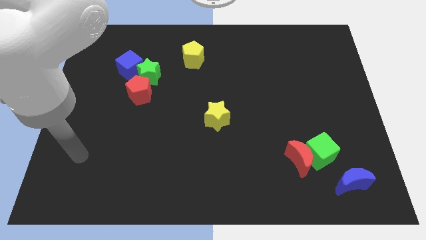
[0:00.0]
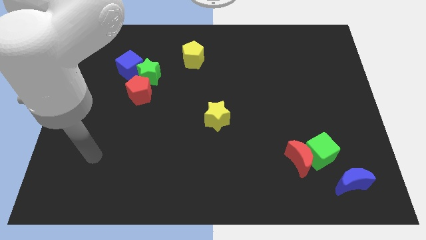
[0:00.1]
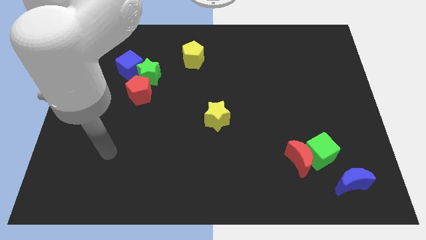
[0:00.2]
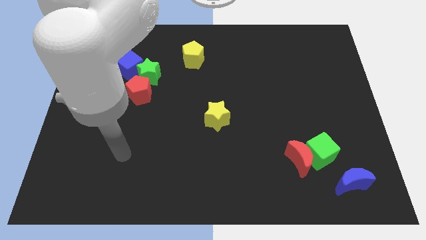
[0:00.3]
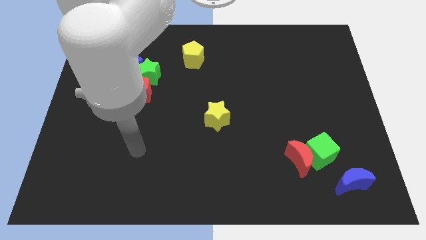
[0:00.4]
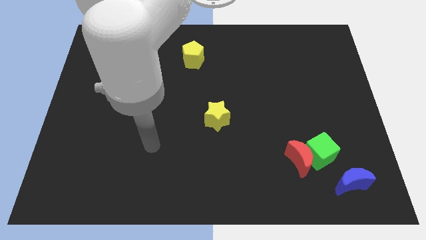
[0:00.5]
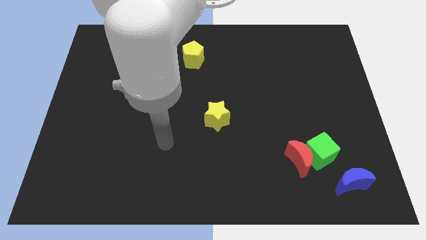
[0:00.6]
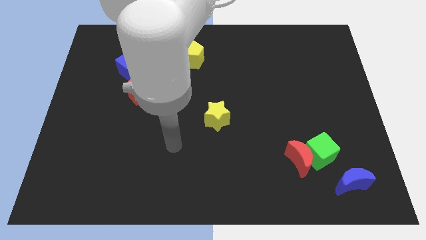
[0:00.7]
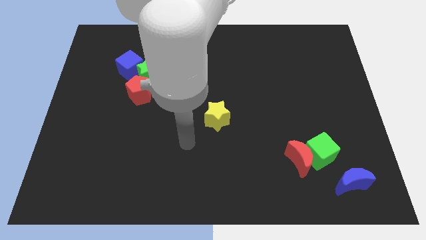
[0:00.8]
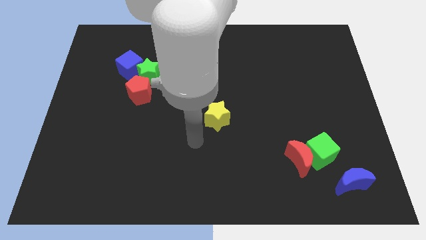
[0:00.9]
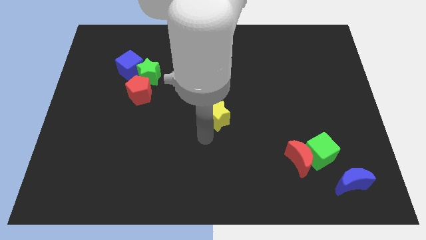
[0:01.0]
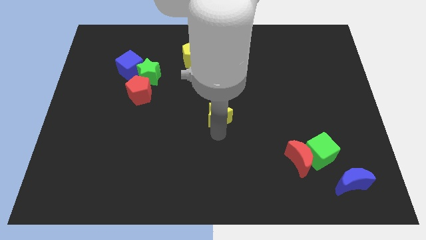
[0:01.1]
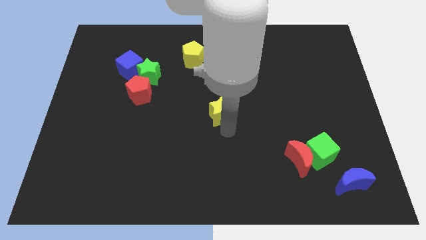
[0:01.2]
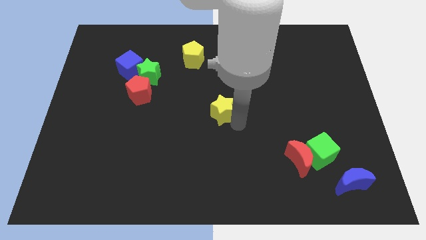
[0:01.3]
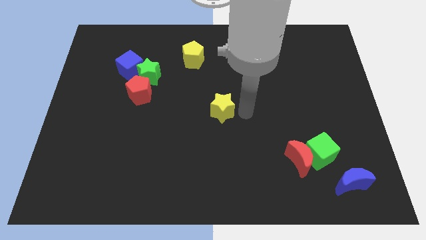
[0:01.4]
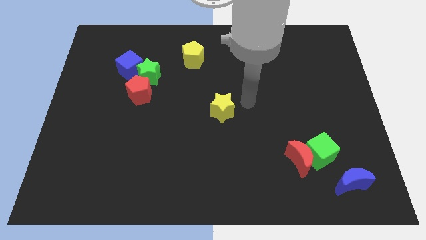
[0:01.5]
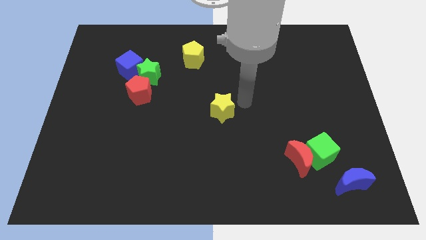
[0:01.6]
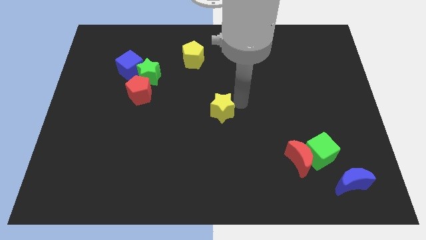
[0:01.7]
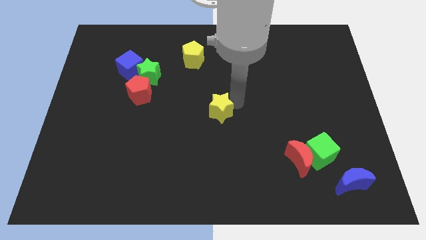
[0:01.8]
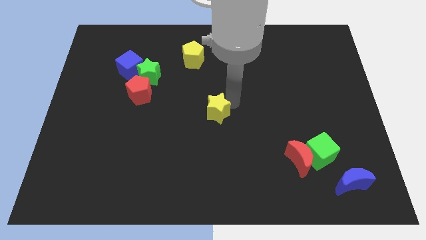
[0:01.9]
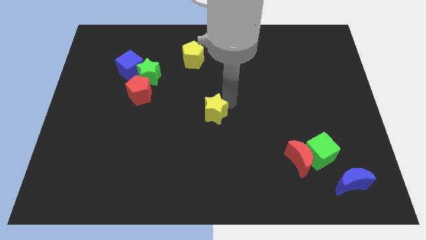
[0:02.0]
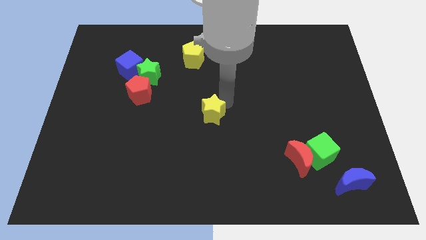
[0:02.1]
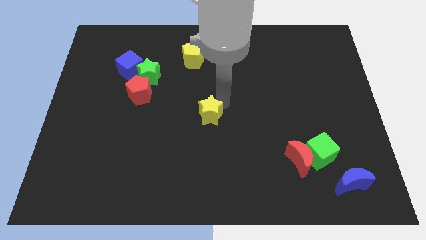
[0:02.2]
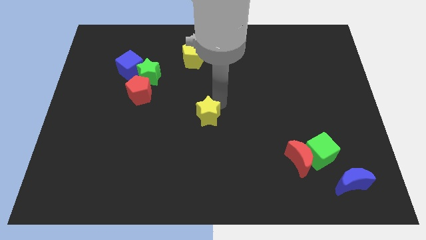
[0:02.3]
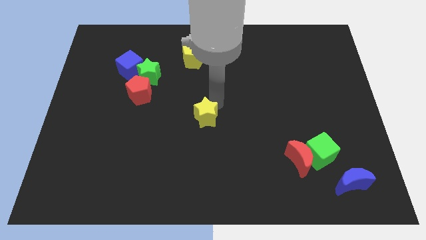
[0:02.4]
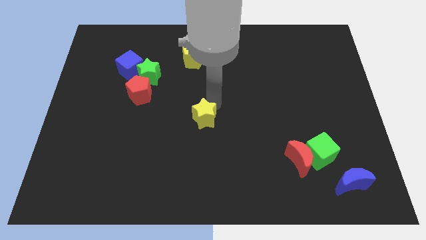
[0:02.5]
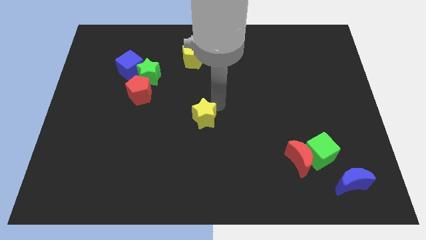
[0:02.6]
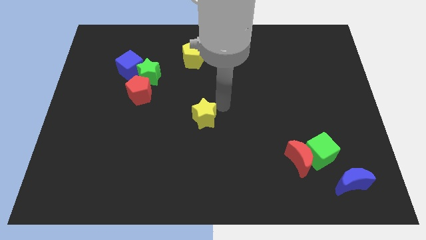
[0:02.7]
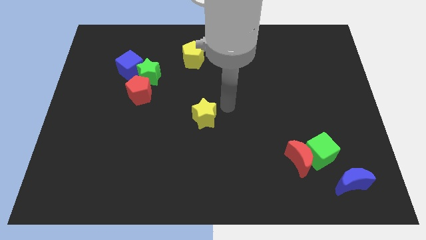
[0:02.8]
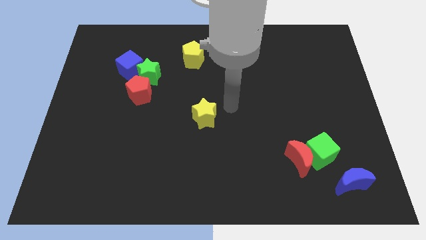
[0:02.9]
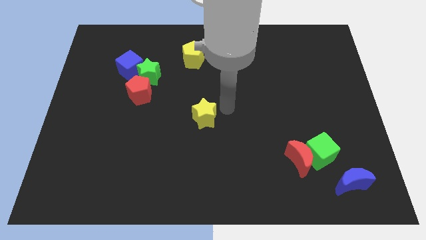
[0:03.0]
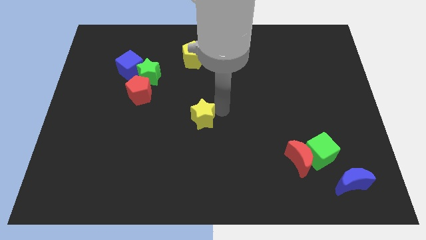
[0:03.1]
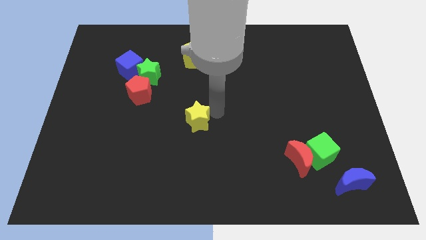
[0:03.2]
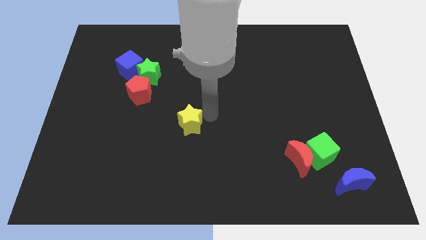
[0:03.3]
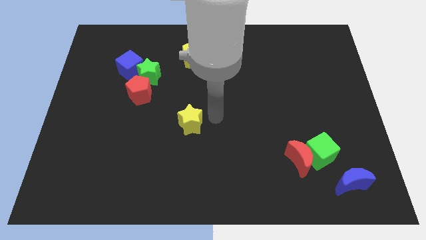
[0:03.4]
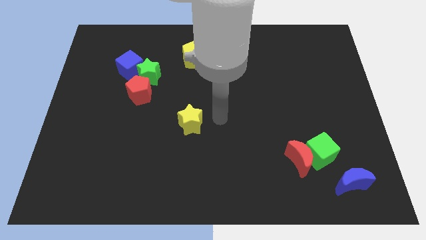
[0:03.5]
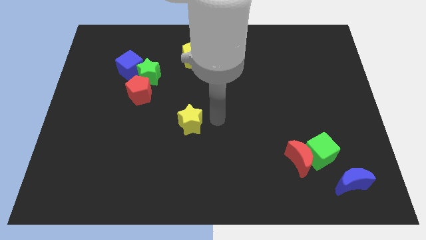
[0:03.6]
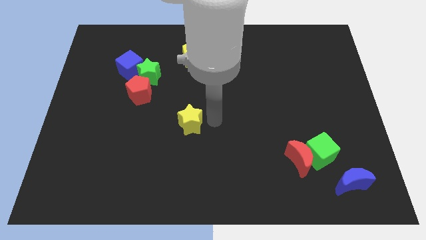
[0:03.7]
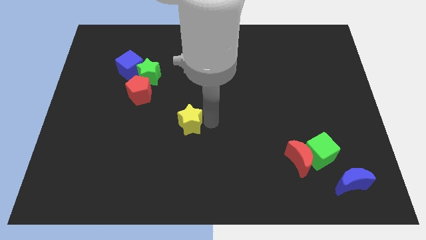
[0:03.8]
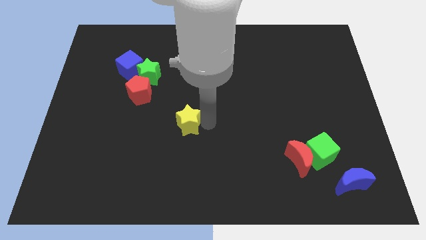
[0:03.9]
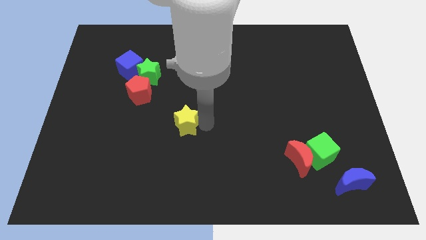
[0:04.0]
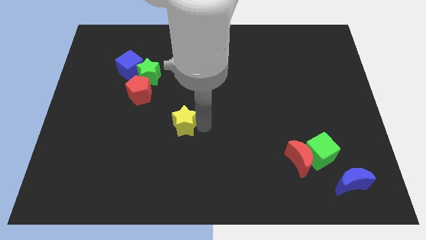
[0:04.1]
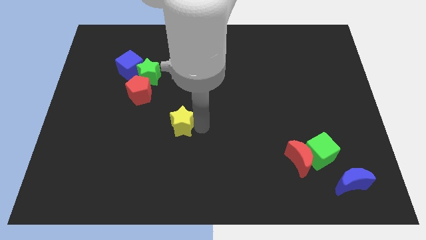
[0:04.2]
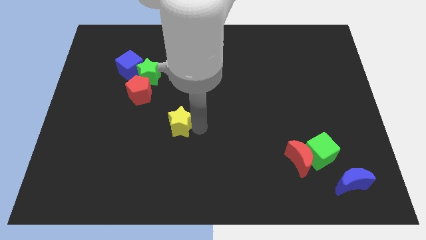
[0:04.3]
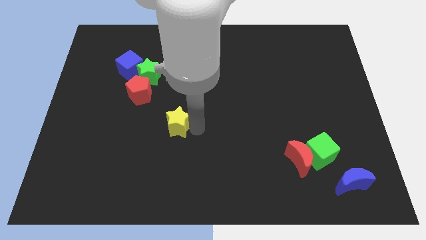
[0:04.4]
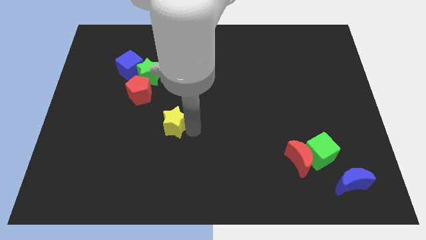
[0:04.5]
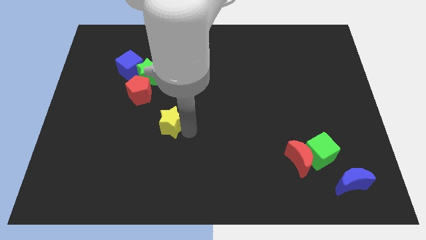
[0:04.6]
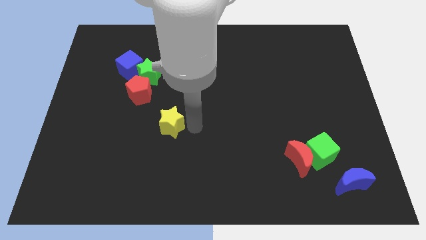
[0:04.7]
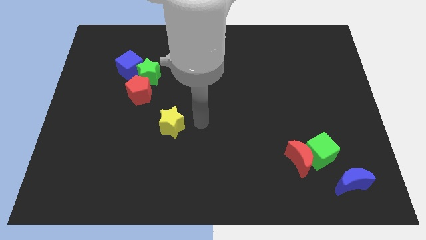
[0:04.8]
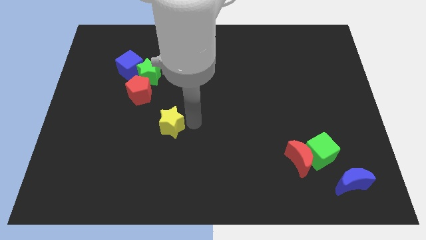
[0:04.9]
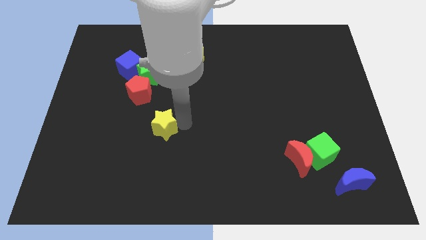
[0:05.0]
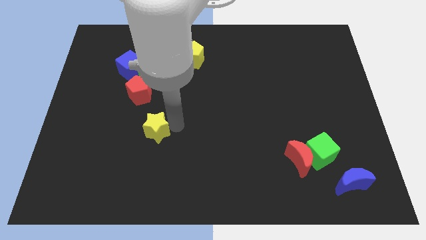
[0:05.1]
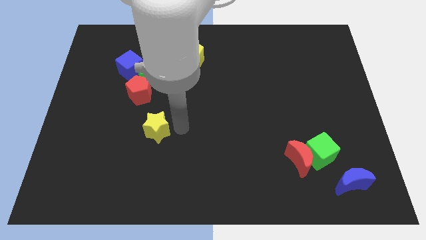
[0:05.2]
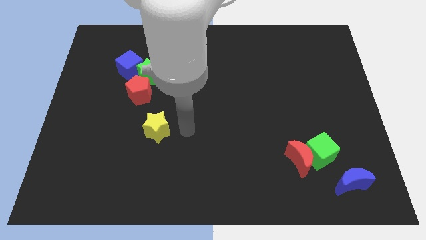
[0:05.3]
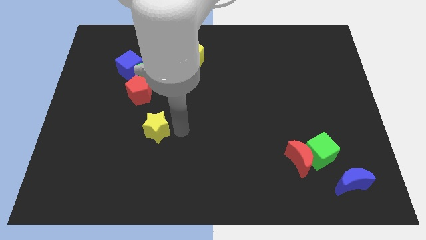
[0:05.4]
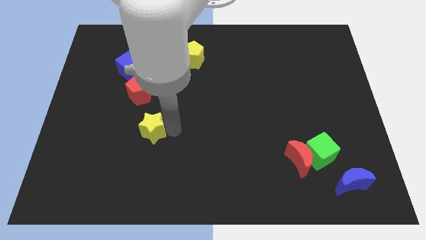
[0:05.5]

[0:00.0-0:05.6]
move the yellow star to the bottom side of the red pentagon

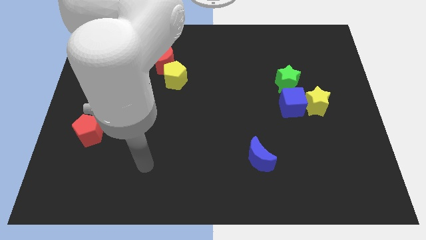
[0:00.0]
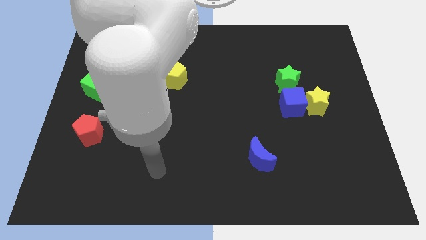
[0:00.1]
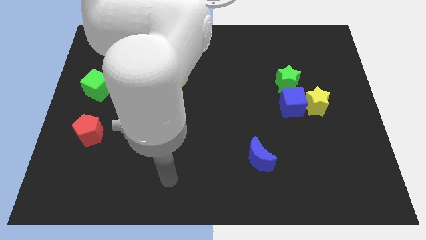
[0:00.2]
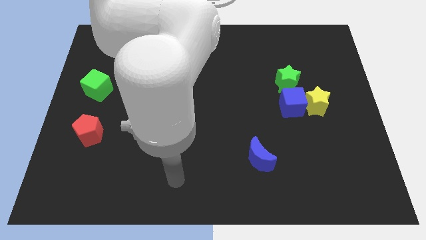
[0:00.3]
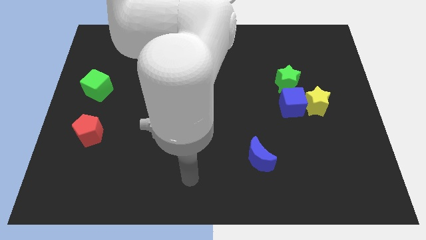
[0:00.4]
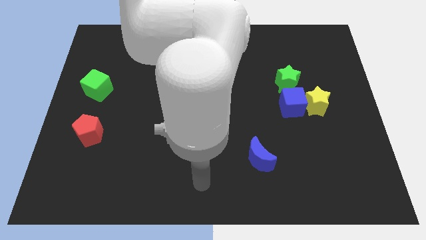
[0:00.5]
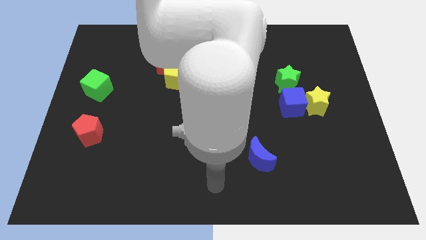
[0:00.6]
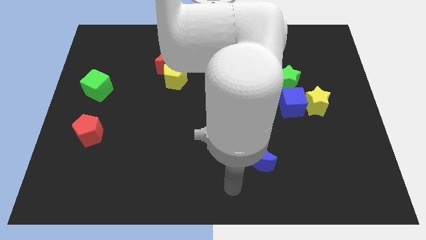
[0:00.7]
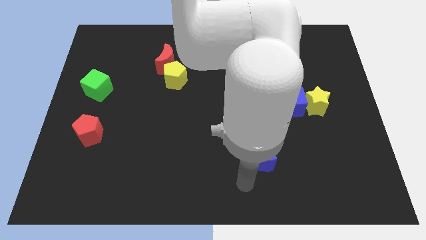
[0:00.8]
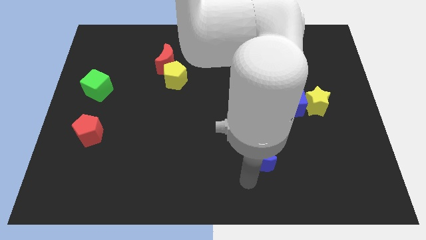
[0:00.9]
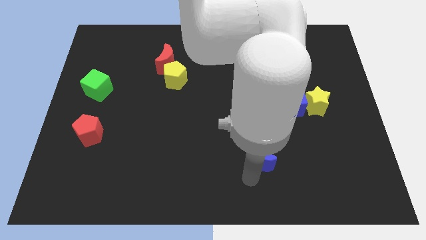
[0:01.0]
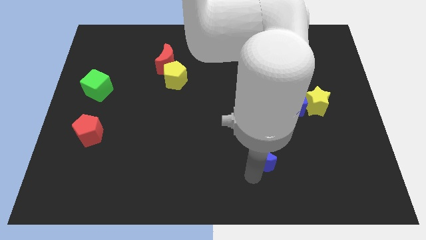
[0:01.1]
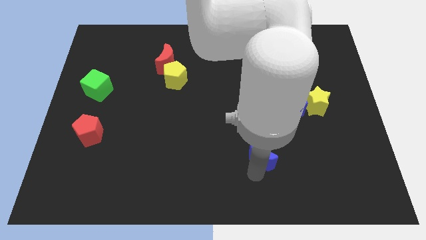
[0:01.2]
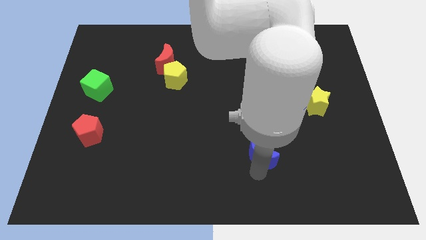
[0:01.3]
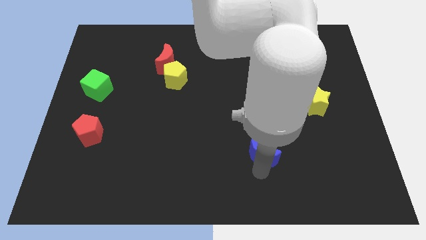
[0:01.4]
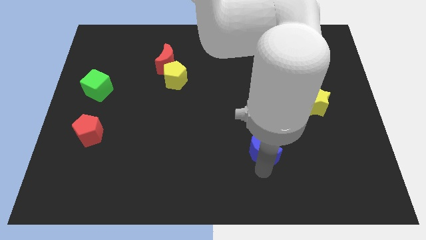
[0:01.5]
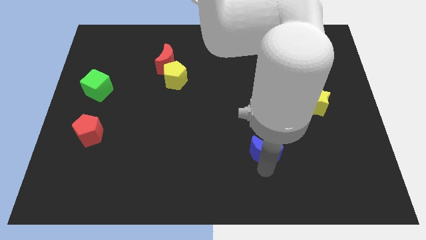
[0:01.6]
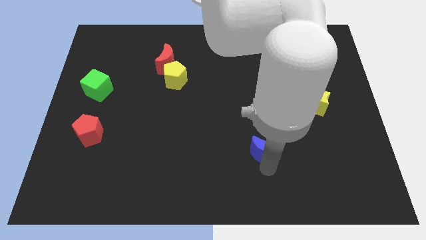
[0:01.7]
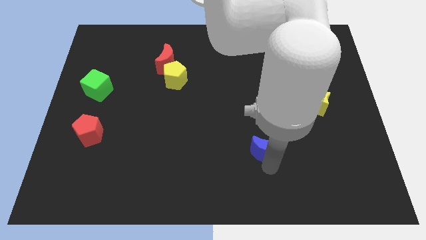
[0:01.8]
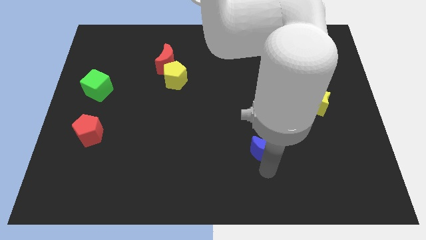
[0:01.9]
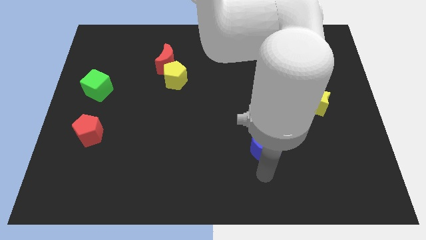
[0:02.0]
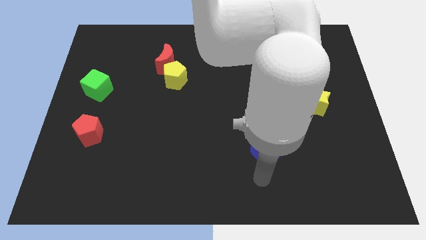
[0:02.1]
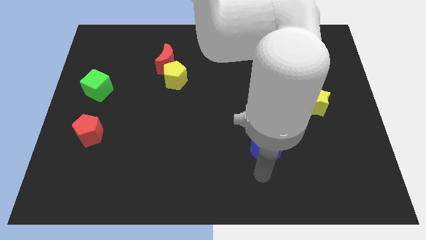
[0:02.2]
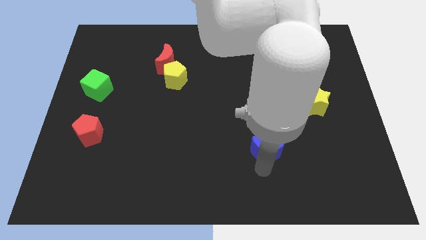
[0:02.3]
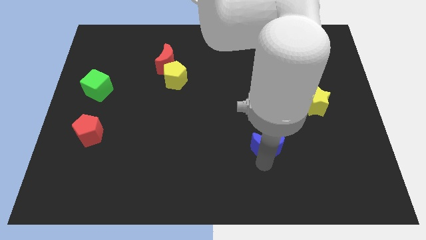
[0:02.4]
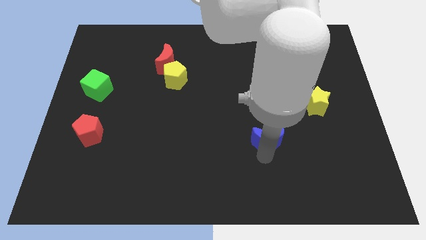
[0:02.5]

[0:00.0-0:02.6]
put the blue moon to the bottom left side of the blue cube
